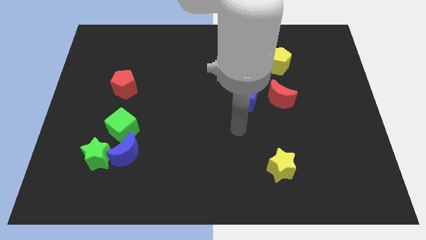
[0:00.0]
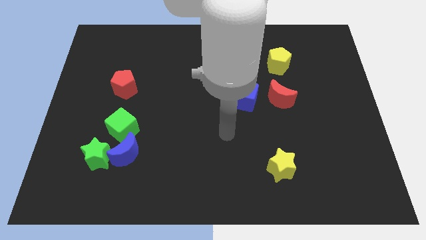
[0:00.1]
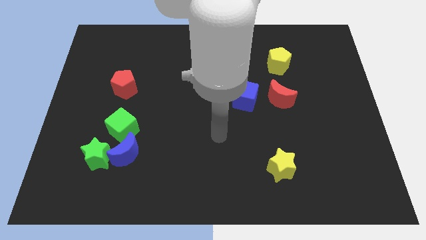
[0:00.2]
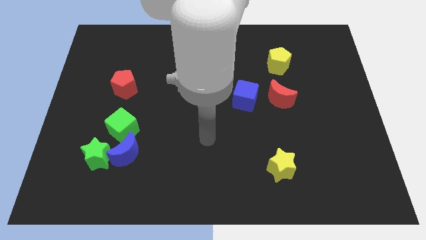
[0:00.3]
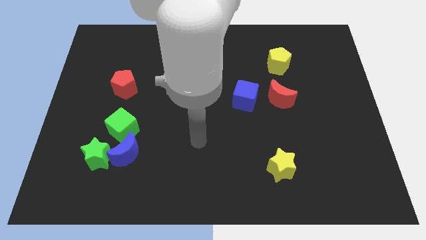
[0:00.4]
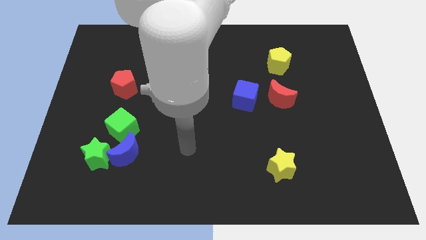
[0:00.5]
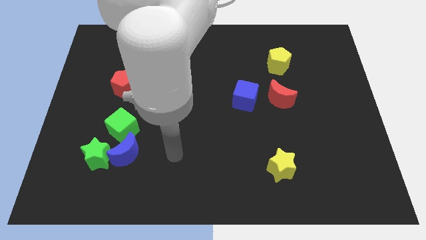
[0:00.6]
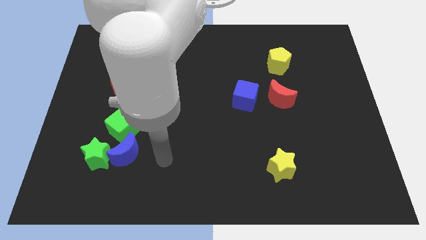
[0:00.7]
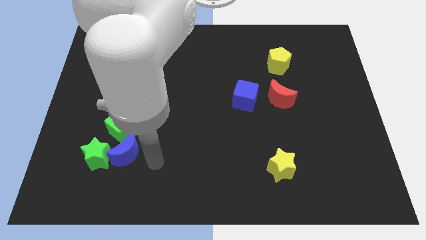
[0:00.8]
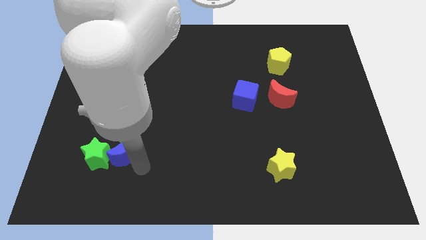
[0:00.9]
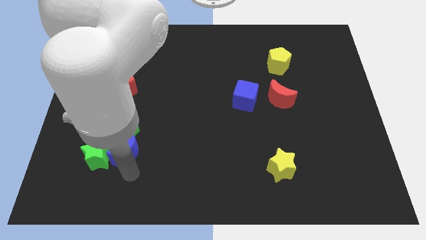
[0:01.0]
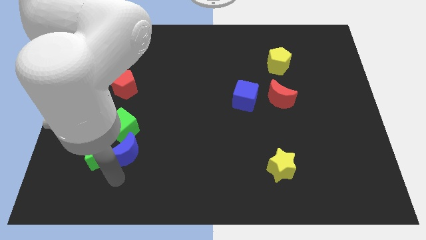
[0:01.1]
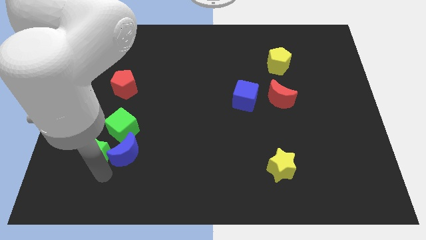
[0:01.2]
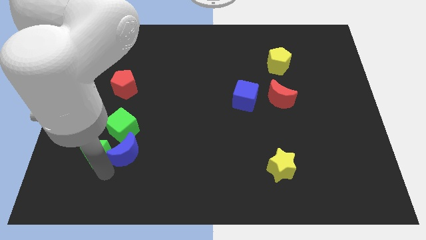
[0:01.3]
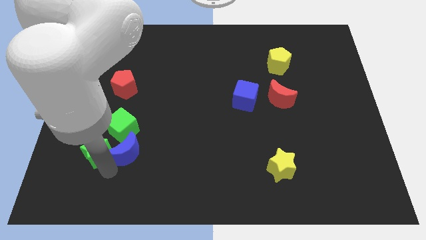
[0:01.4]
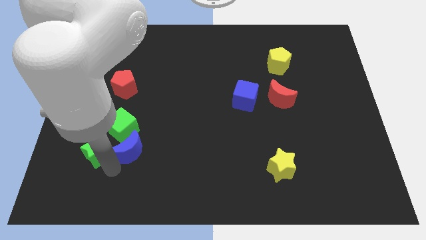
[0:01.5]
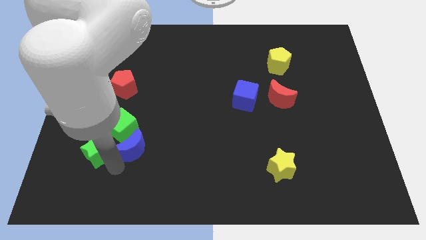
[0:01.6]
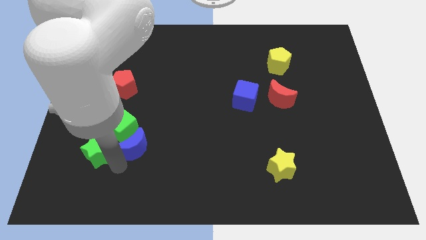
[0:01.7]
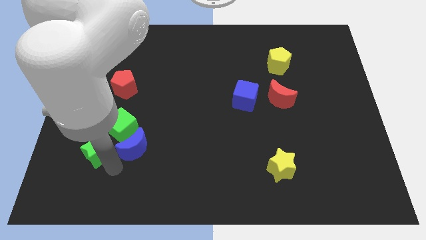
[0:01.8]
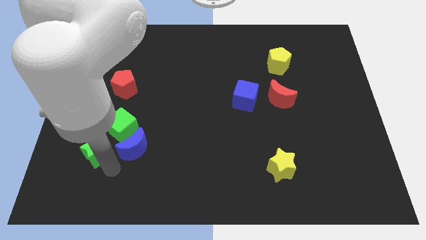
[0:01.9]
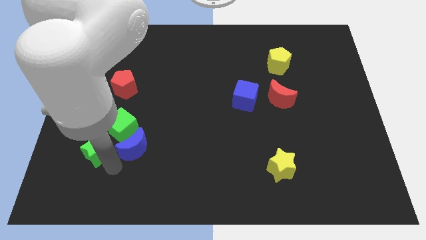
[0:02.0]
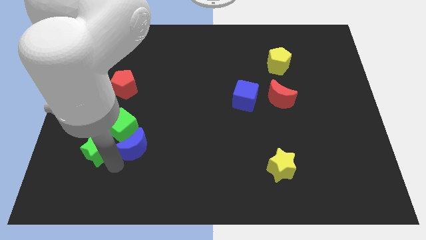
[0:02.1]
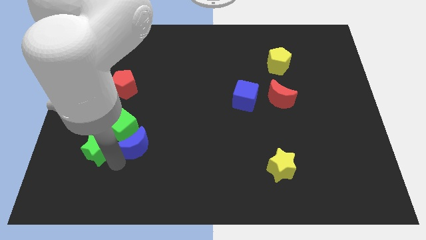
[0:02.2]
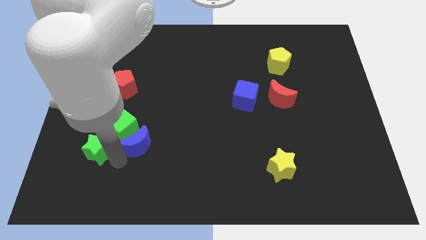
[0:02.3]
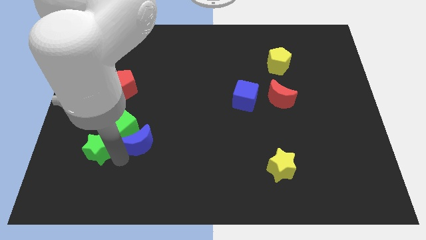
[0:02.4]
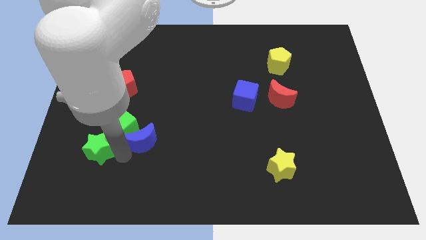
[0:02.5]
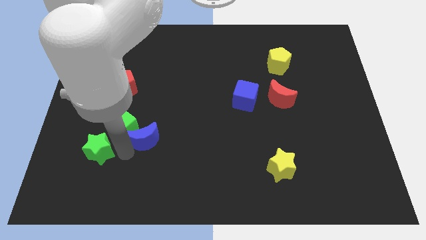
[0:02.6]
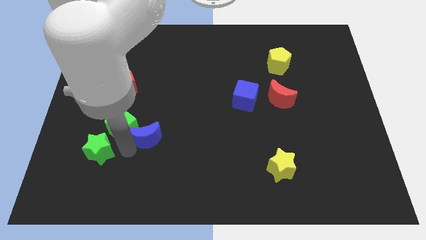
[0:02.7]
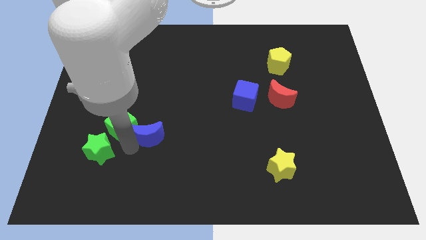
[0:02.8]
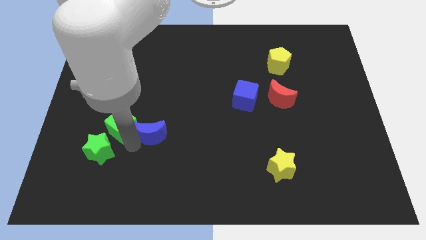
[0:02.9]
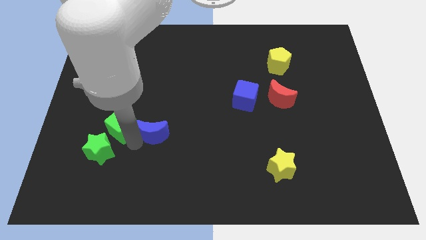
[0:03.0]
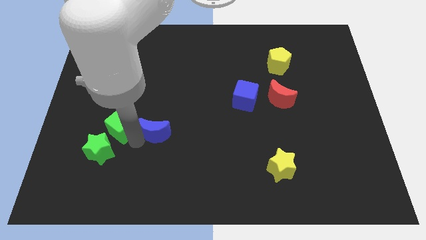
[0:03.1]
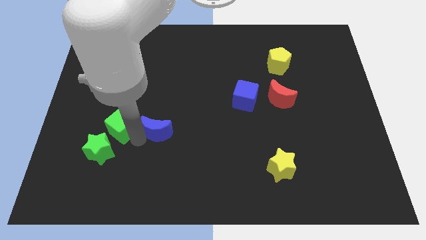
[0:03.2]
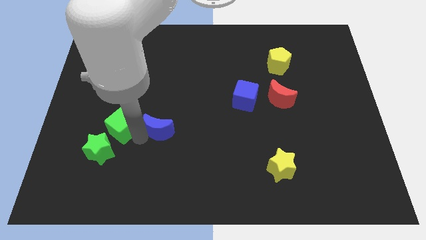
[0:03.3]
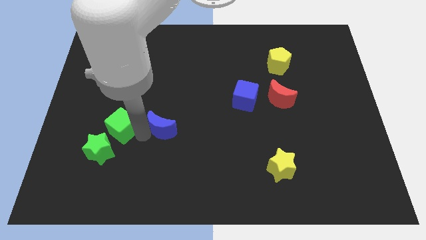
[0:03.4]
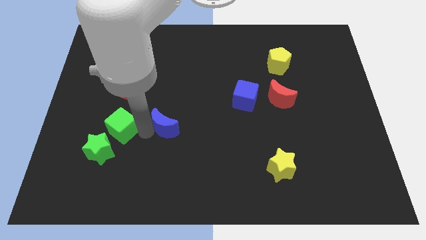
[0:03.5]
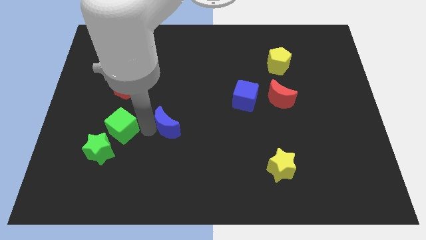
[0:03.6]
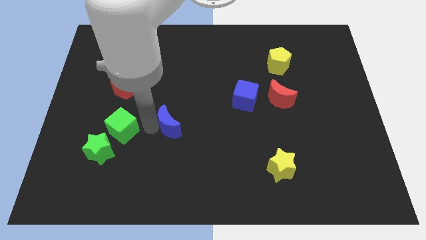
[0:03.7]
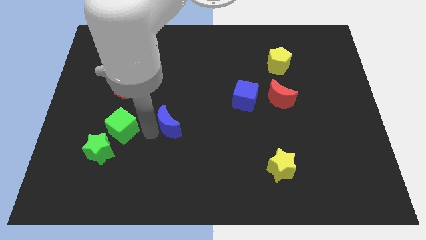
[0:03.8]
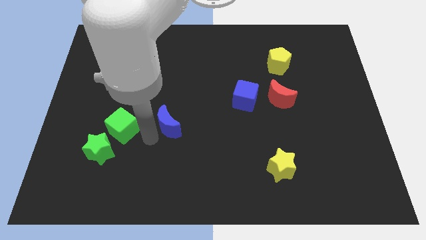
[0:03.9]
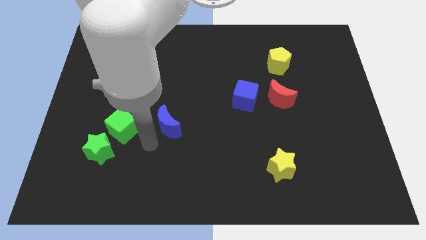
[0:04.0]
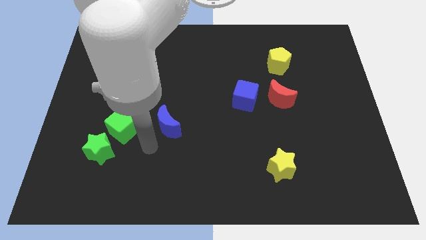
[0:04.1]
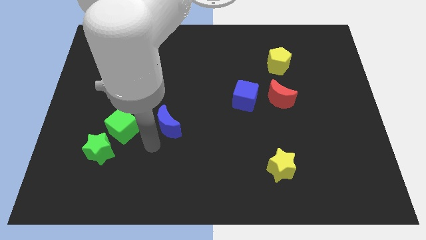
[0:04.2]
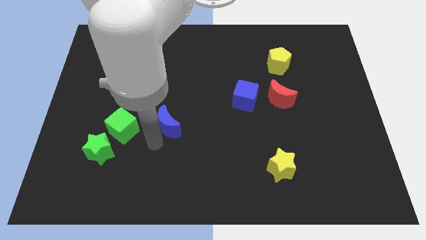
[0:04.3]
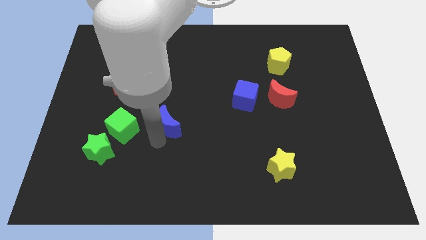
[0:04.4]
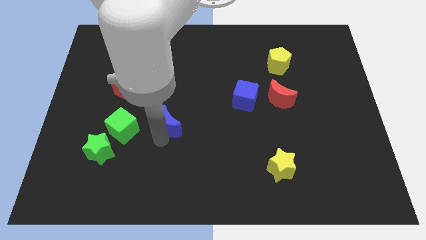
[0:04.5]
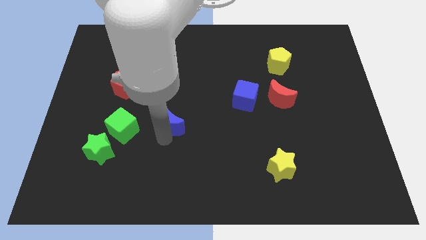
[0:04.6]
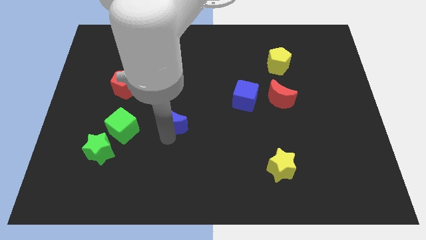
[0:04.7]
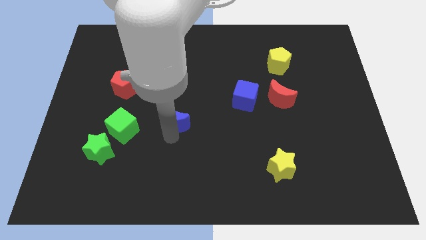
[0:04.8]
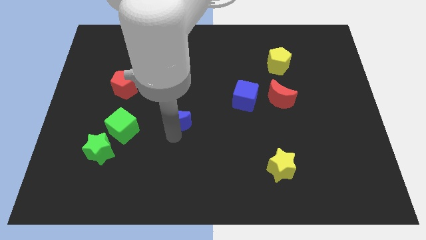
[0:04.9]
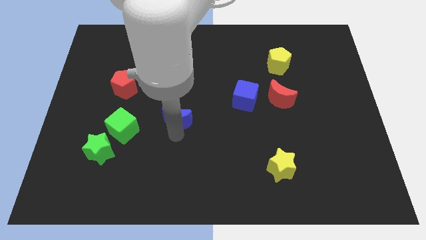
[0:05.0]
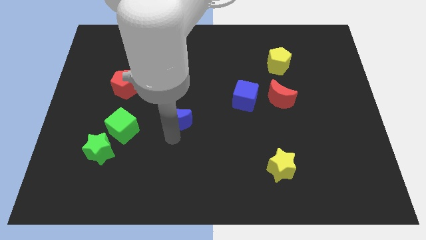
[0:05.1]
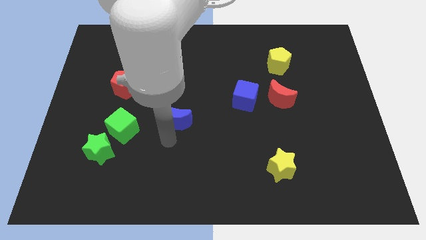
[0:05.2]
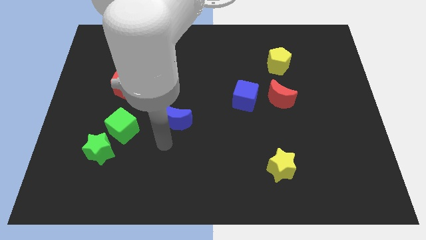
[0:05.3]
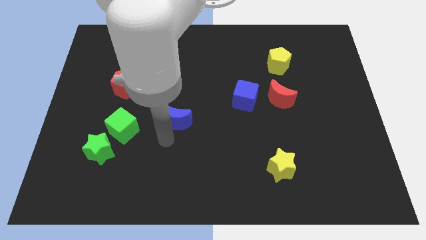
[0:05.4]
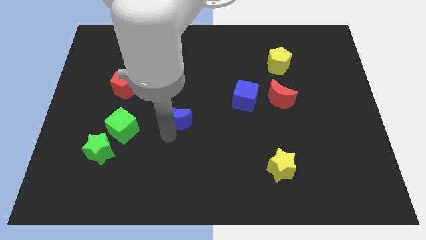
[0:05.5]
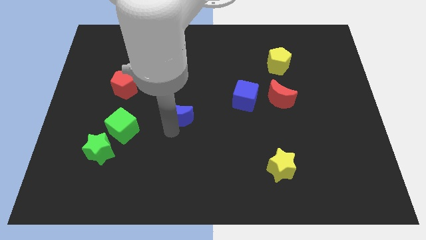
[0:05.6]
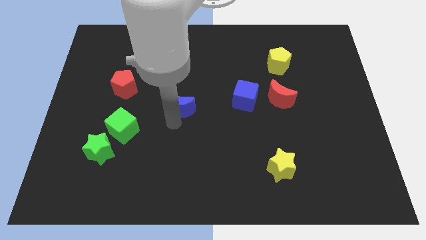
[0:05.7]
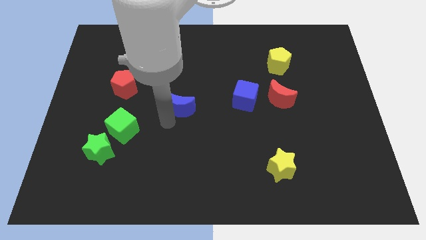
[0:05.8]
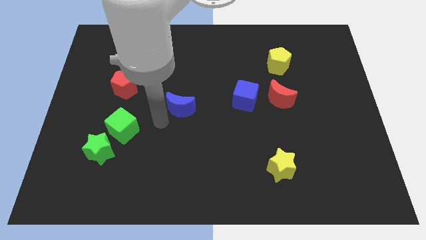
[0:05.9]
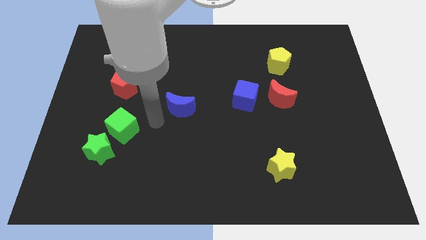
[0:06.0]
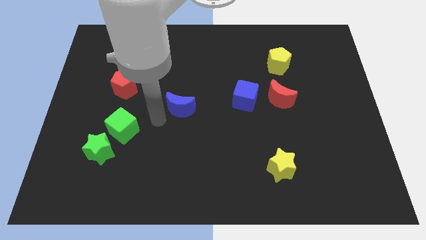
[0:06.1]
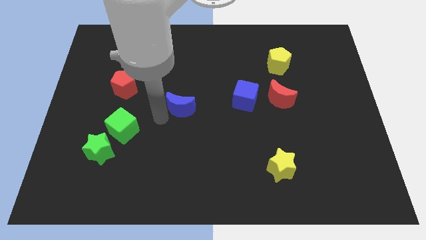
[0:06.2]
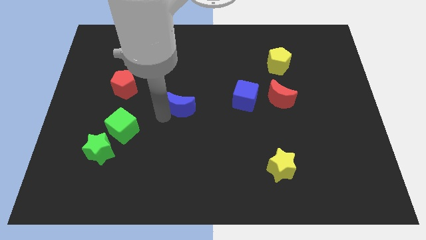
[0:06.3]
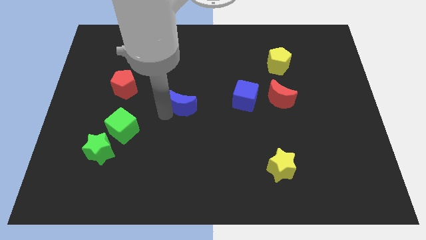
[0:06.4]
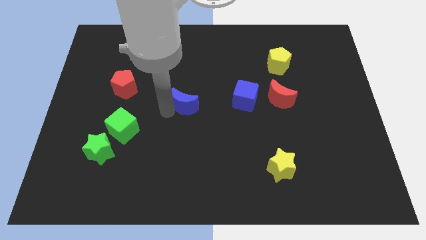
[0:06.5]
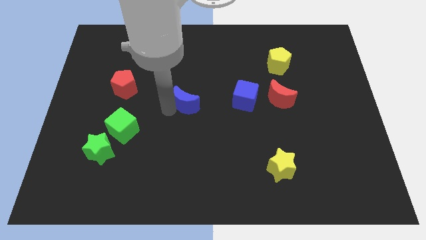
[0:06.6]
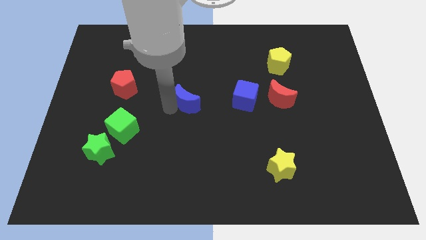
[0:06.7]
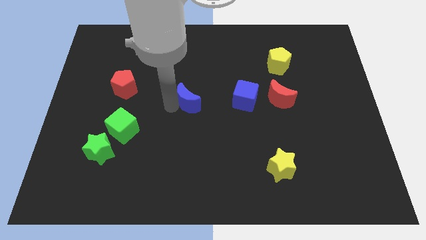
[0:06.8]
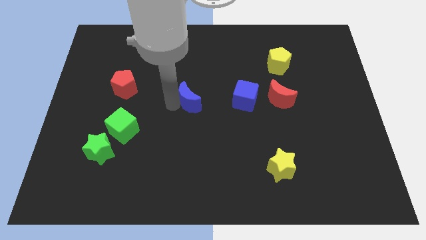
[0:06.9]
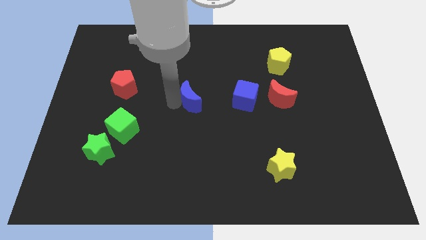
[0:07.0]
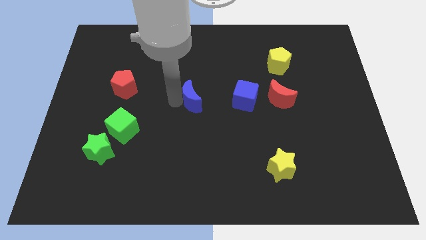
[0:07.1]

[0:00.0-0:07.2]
move the blue moon upwards and then to the right

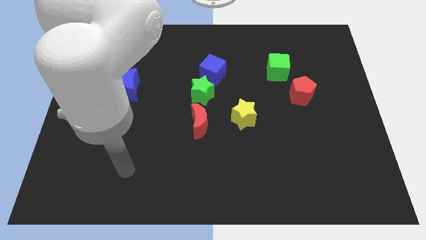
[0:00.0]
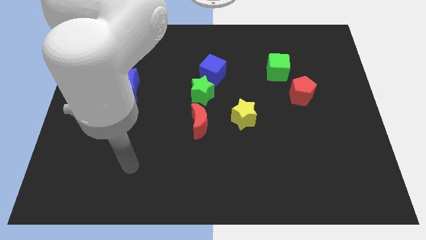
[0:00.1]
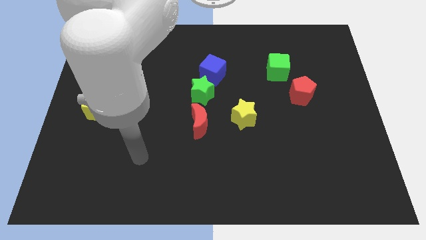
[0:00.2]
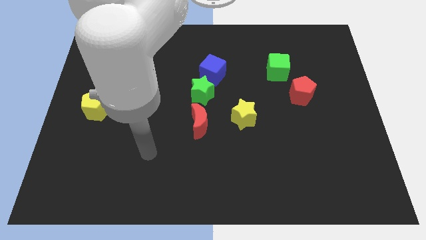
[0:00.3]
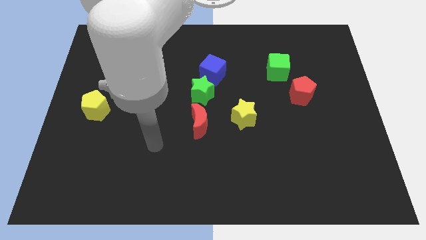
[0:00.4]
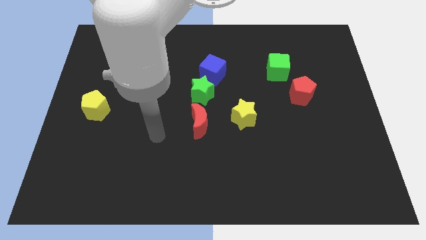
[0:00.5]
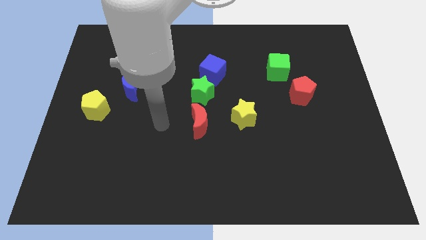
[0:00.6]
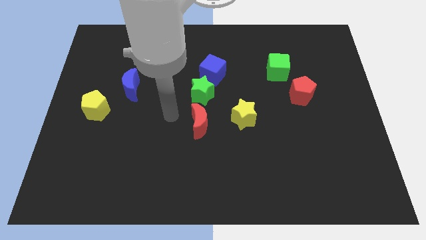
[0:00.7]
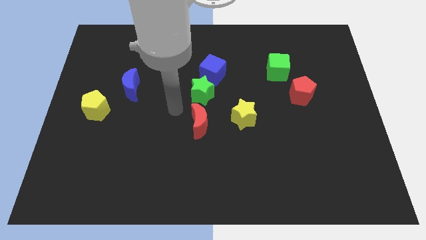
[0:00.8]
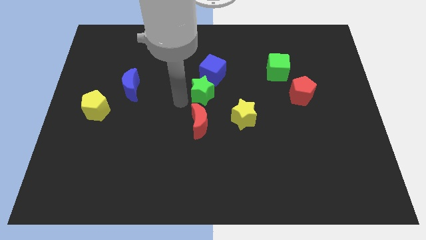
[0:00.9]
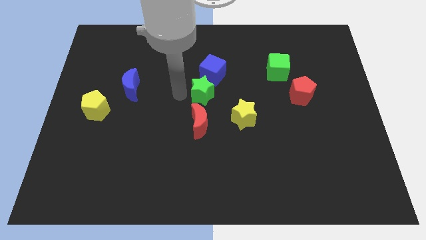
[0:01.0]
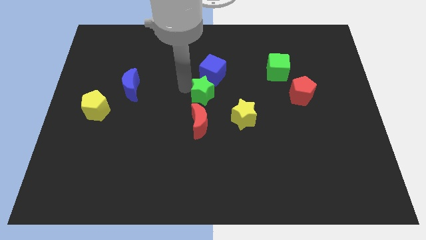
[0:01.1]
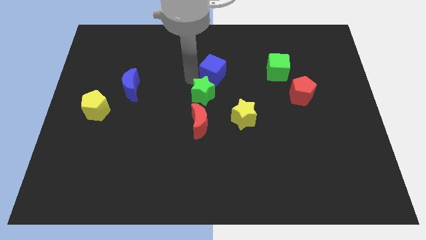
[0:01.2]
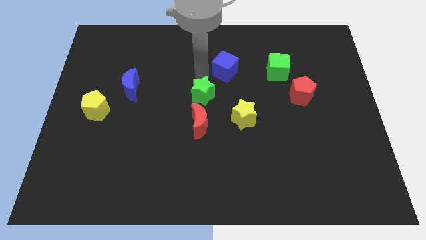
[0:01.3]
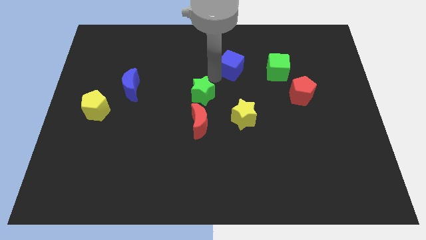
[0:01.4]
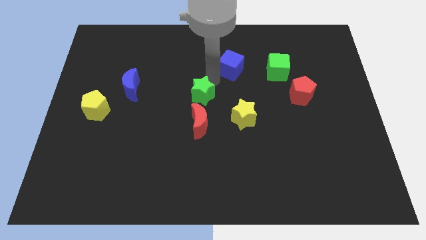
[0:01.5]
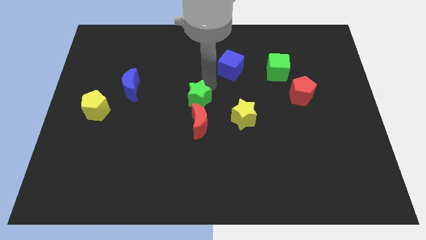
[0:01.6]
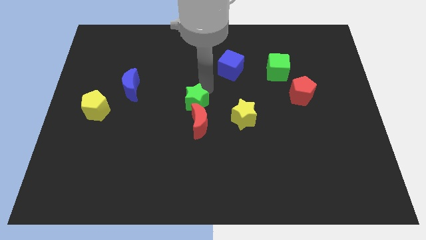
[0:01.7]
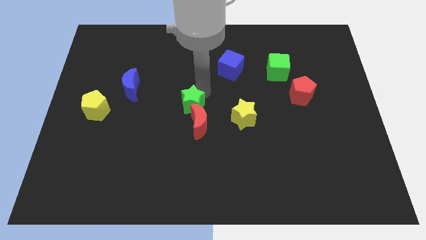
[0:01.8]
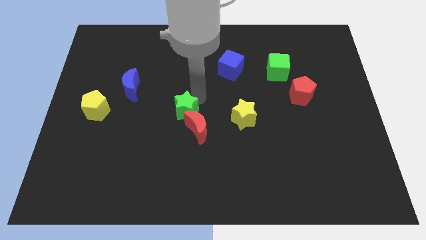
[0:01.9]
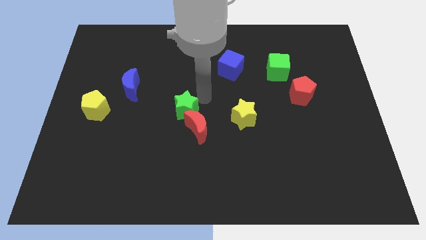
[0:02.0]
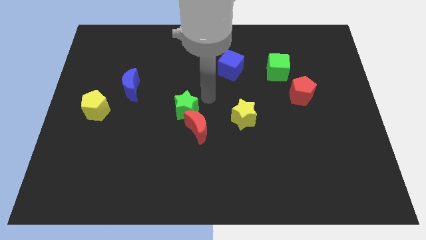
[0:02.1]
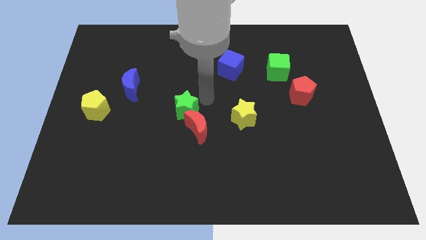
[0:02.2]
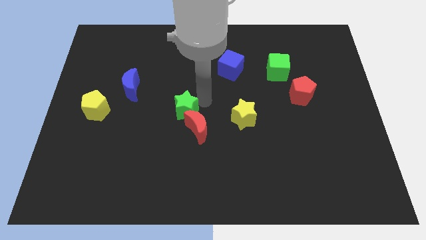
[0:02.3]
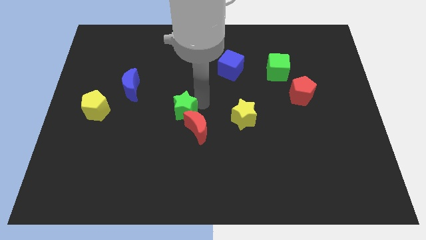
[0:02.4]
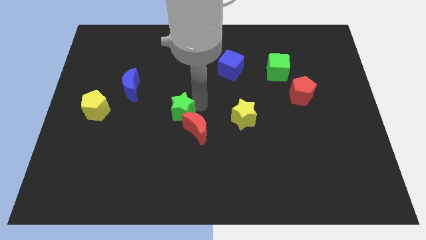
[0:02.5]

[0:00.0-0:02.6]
push the green star down and to the left diagonally a little bit
